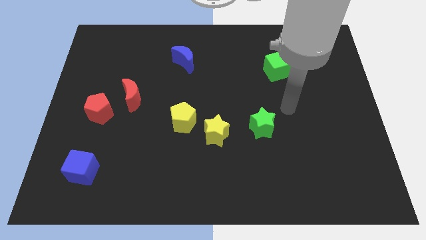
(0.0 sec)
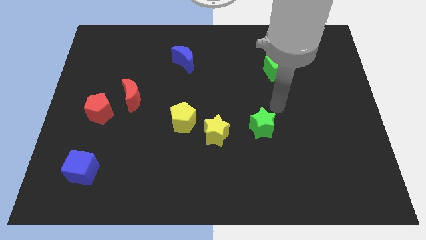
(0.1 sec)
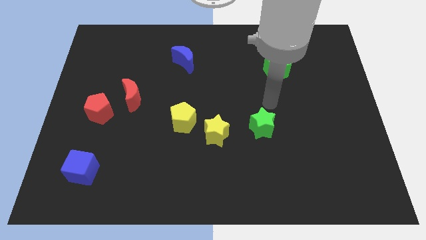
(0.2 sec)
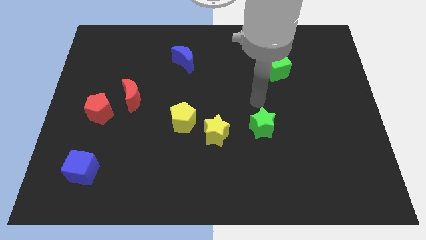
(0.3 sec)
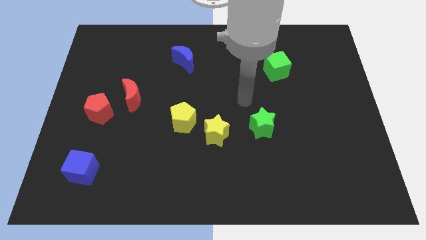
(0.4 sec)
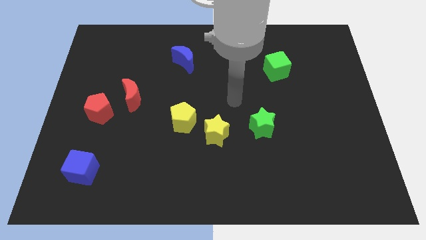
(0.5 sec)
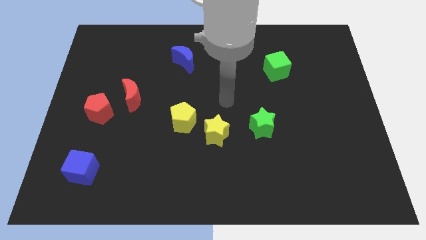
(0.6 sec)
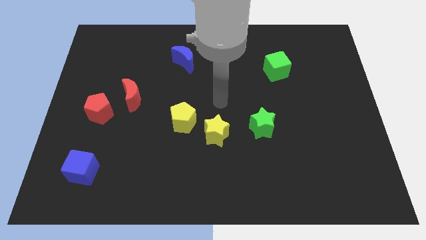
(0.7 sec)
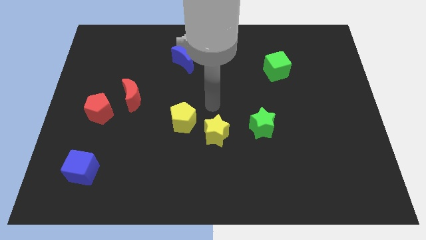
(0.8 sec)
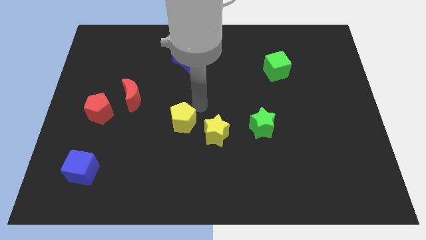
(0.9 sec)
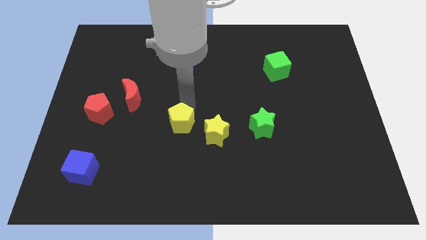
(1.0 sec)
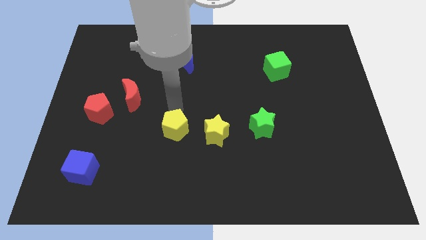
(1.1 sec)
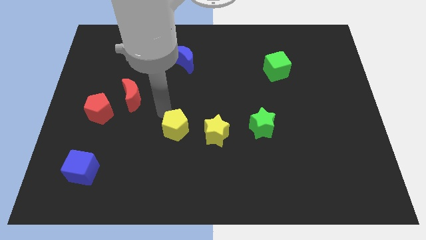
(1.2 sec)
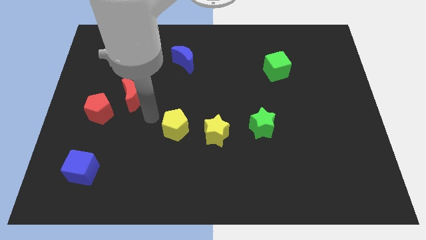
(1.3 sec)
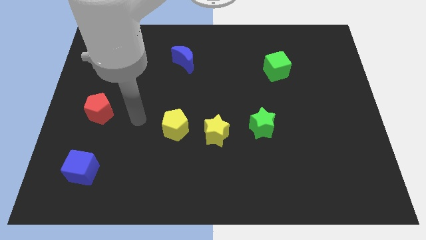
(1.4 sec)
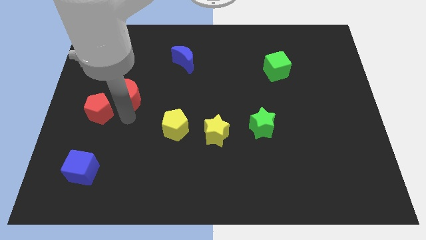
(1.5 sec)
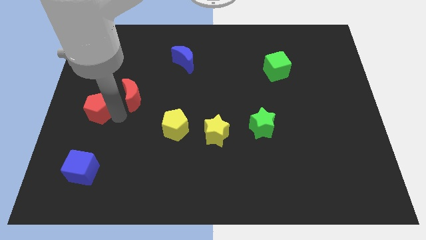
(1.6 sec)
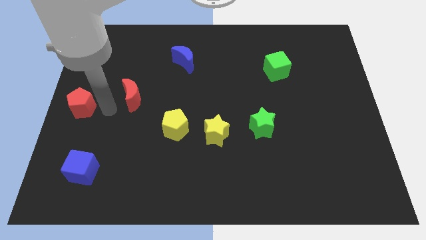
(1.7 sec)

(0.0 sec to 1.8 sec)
move the red moon away from the red pentagon

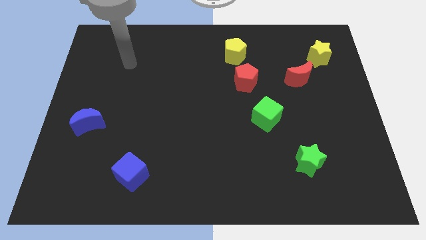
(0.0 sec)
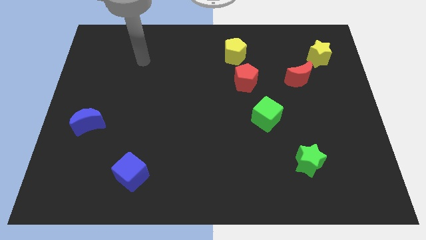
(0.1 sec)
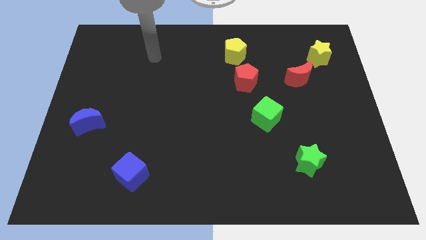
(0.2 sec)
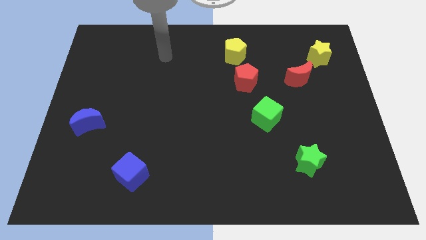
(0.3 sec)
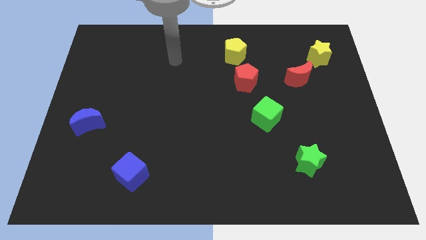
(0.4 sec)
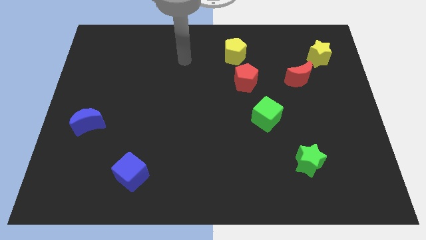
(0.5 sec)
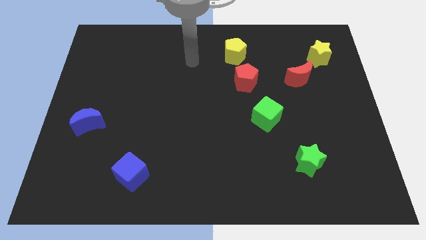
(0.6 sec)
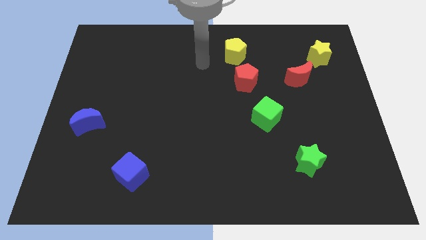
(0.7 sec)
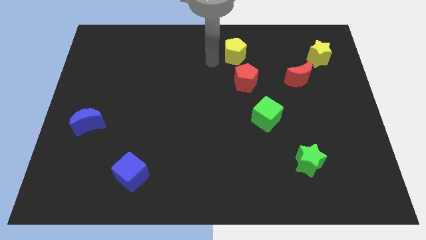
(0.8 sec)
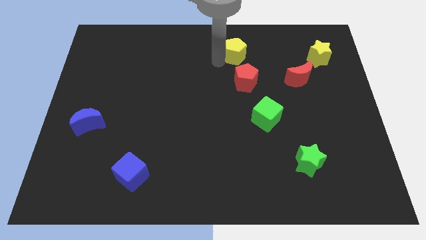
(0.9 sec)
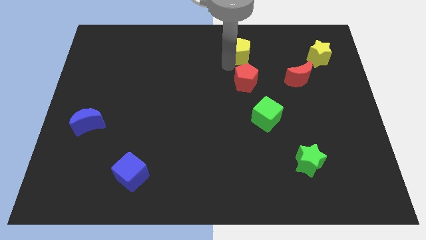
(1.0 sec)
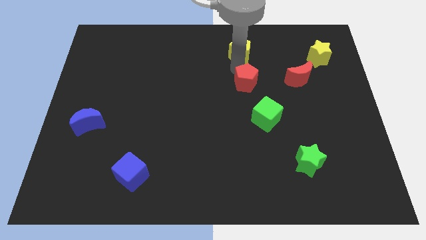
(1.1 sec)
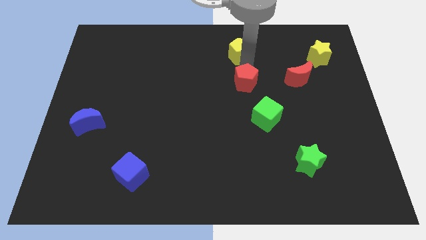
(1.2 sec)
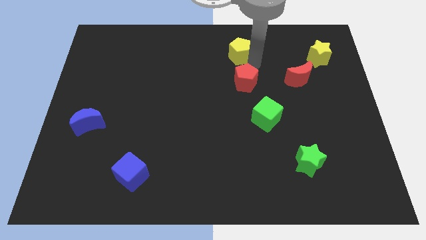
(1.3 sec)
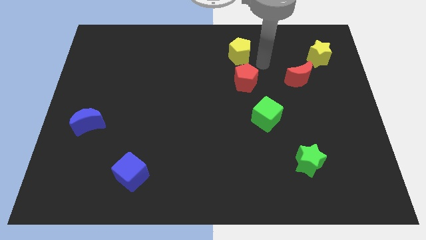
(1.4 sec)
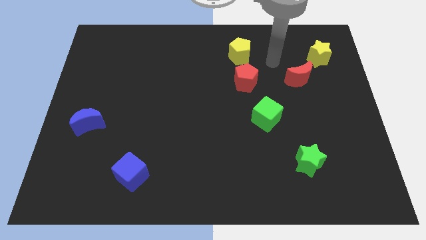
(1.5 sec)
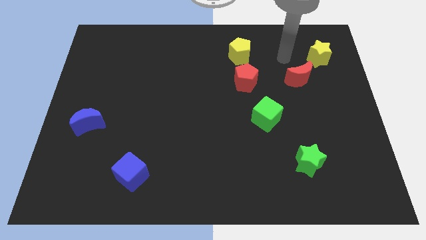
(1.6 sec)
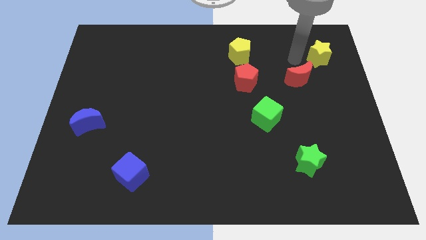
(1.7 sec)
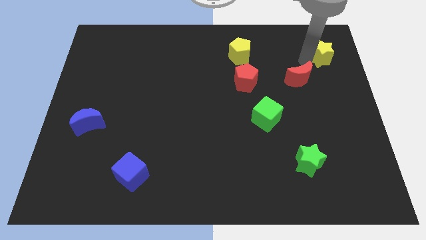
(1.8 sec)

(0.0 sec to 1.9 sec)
move the red moon away from the yellow star

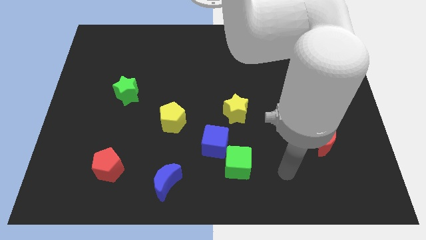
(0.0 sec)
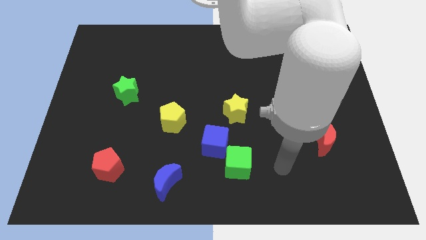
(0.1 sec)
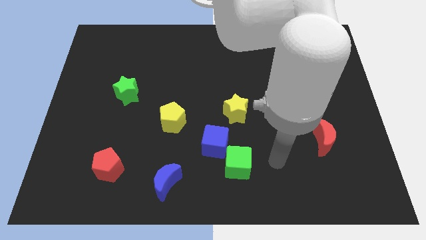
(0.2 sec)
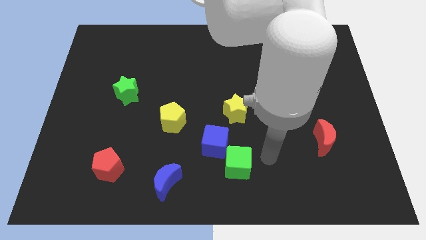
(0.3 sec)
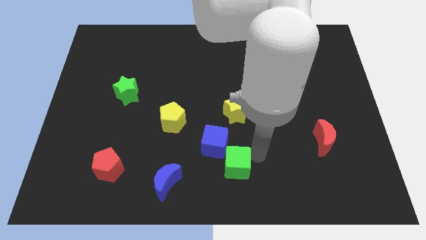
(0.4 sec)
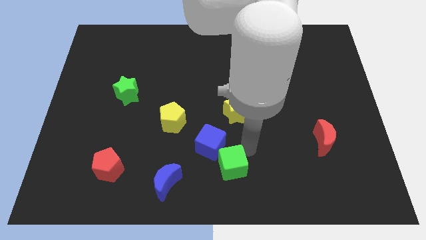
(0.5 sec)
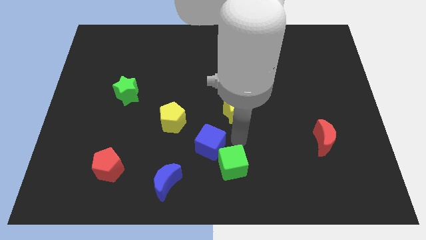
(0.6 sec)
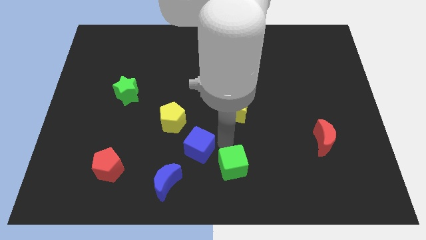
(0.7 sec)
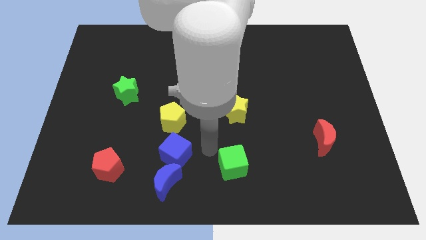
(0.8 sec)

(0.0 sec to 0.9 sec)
separate the green cube from the blue cube

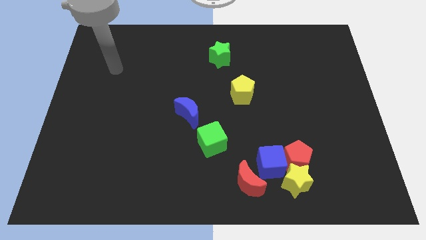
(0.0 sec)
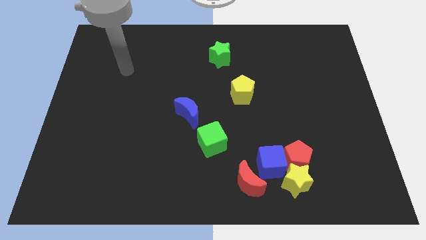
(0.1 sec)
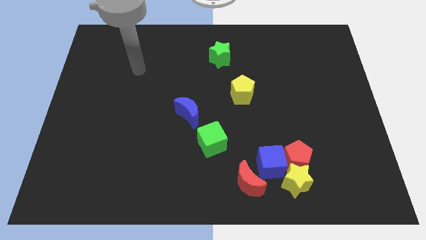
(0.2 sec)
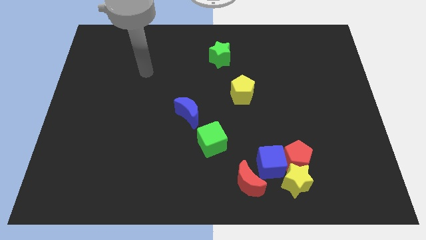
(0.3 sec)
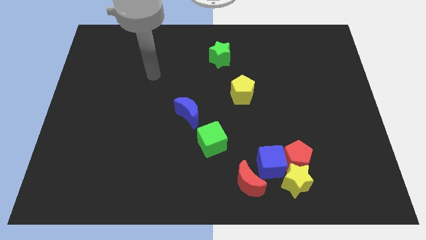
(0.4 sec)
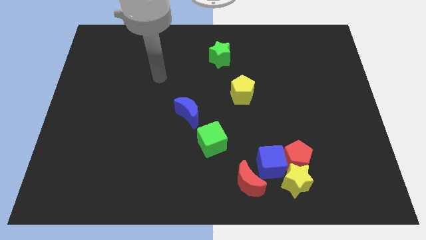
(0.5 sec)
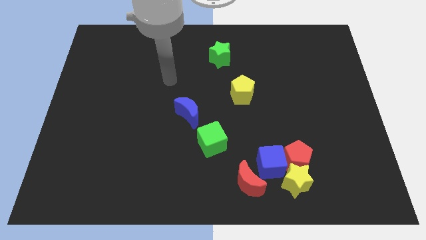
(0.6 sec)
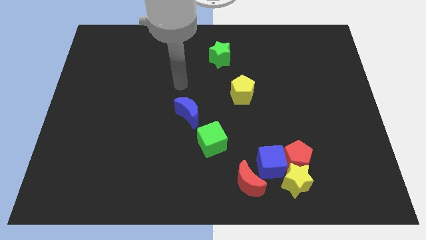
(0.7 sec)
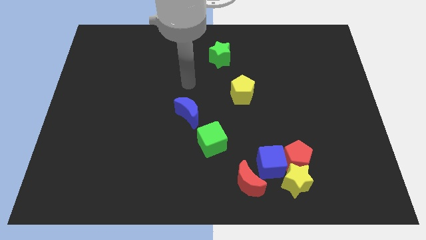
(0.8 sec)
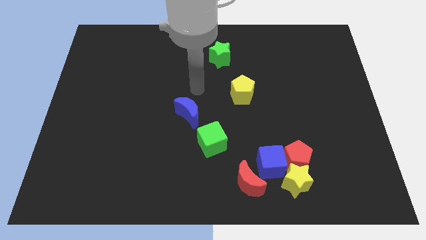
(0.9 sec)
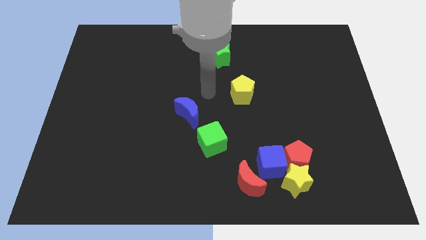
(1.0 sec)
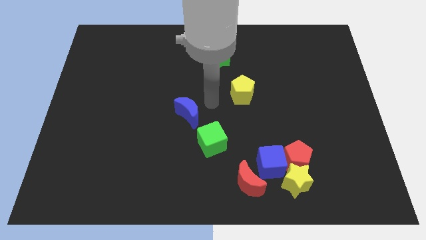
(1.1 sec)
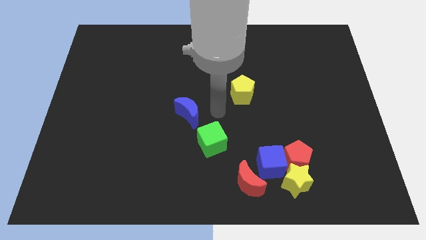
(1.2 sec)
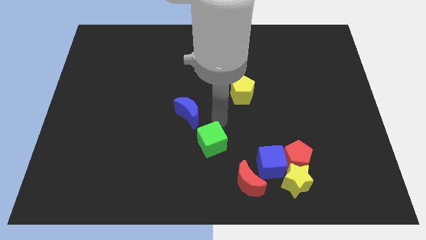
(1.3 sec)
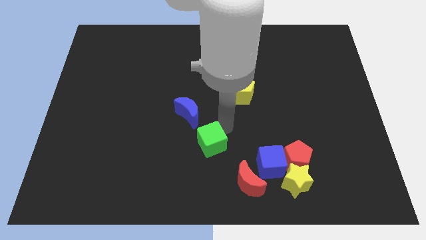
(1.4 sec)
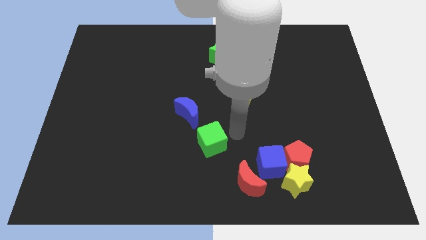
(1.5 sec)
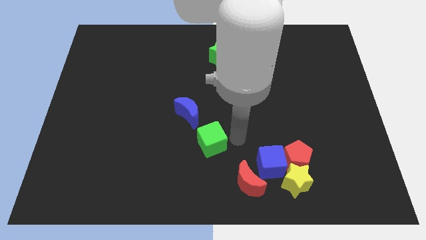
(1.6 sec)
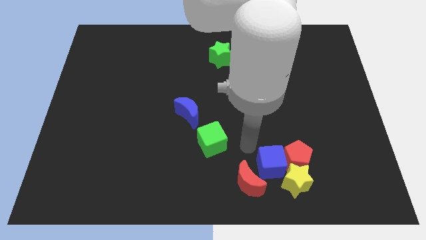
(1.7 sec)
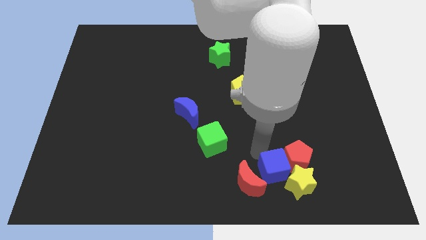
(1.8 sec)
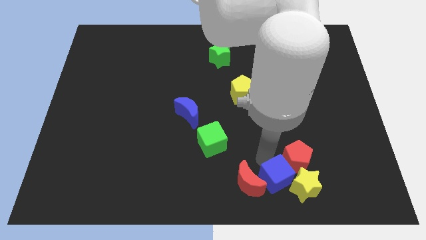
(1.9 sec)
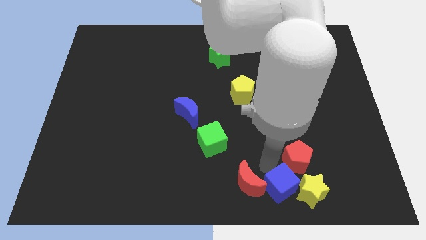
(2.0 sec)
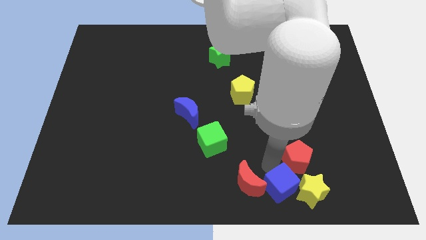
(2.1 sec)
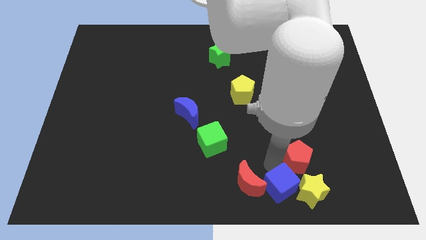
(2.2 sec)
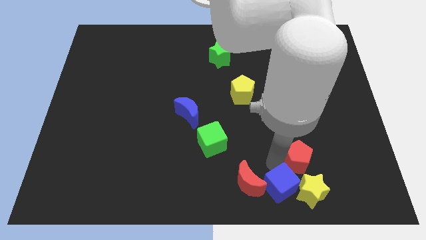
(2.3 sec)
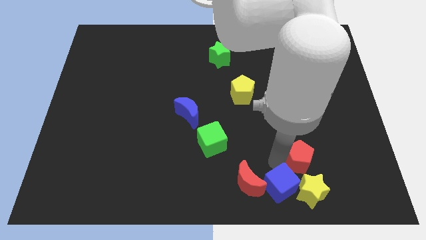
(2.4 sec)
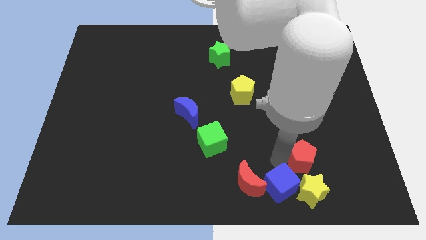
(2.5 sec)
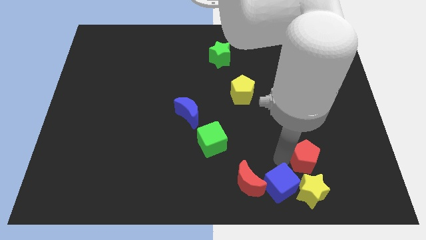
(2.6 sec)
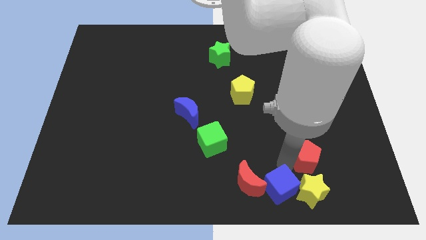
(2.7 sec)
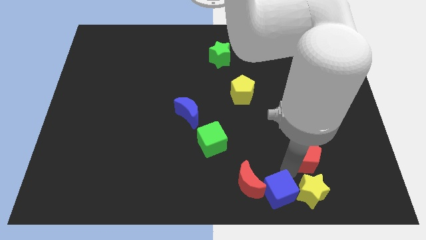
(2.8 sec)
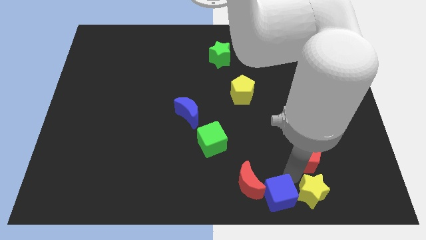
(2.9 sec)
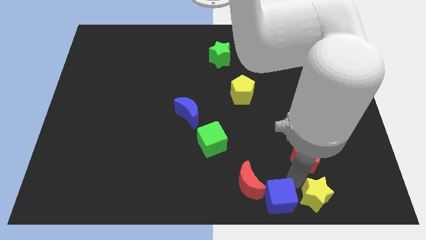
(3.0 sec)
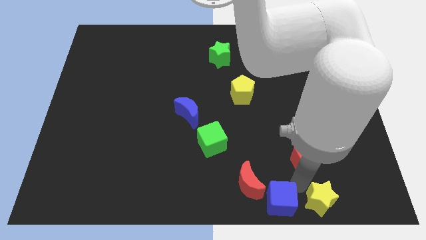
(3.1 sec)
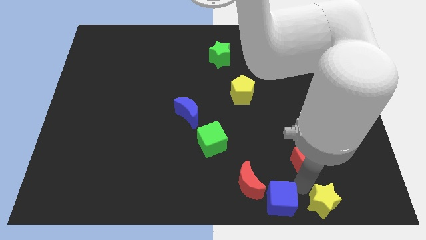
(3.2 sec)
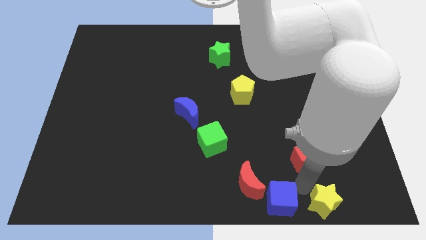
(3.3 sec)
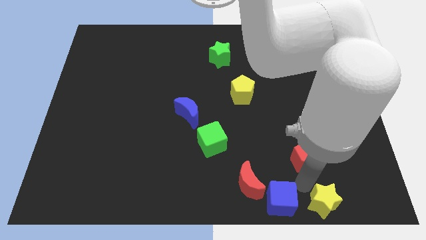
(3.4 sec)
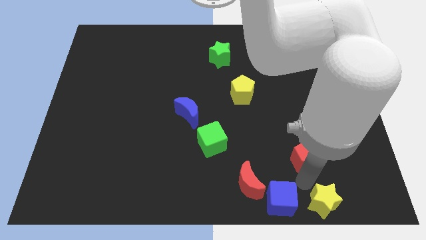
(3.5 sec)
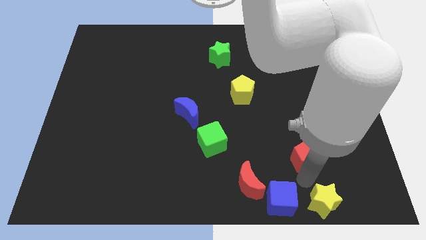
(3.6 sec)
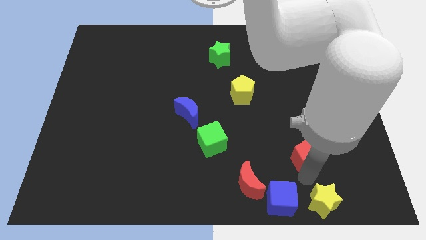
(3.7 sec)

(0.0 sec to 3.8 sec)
move the red pentagon away from the yellow star and blue cube

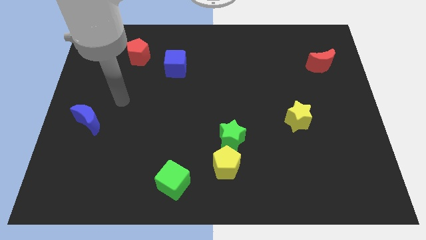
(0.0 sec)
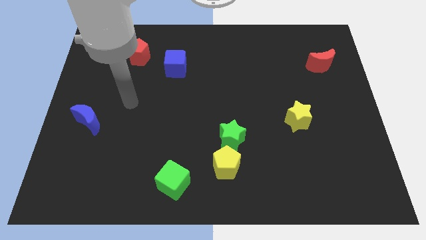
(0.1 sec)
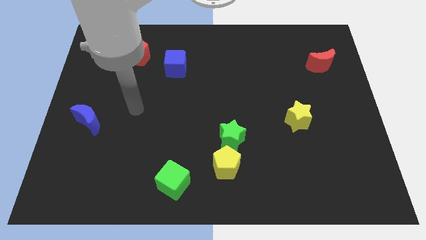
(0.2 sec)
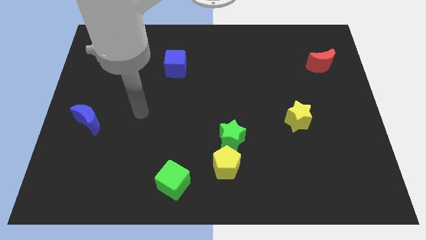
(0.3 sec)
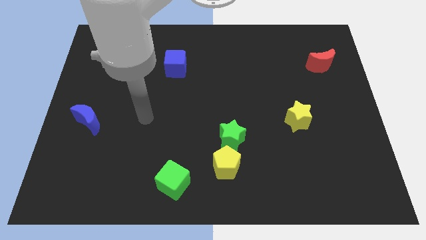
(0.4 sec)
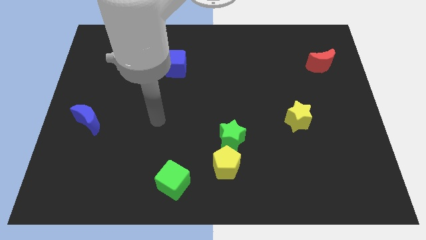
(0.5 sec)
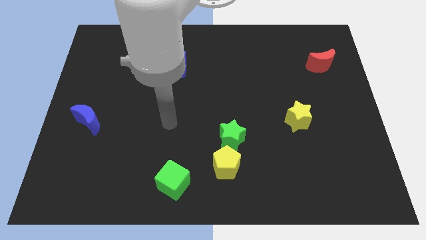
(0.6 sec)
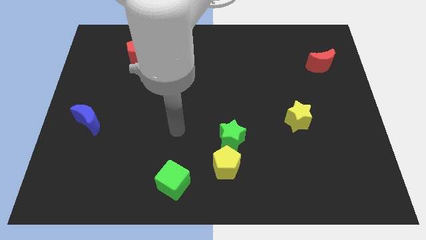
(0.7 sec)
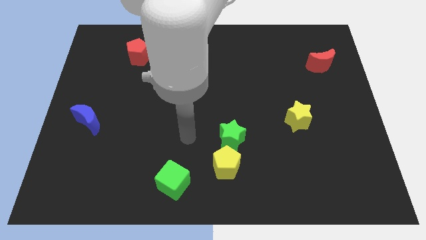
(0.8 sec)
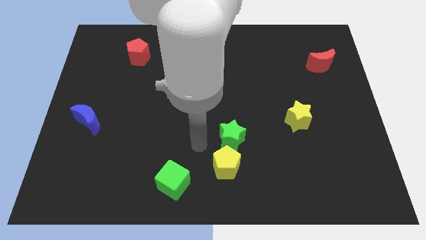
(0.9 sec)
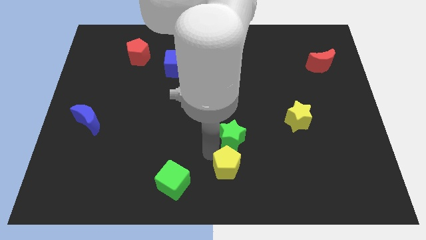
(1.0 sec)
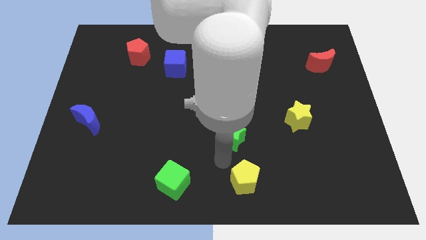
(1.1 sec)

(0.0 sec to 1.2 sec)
move the green star away from the yellow pentagon
